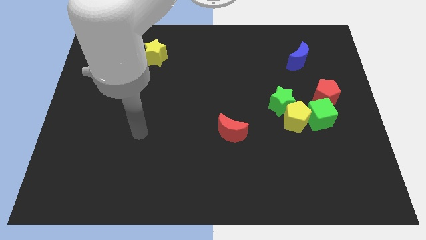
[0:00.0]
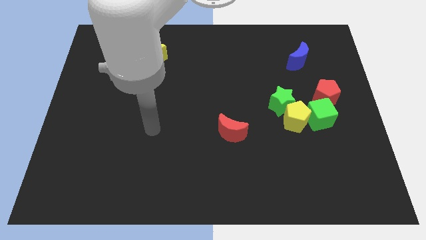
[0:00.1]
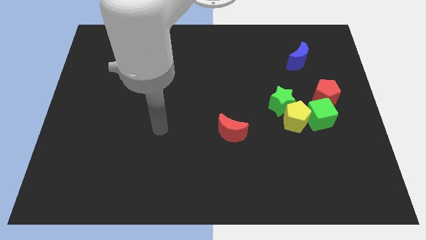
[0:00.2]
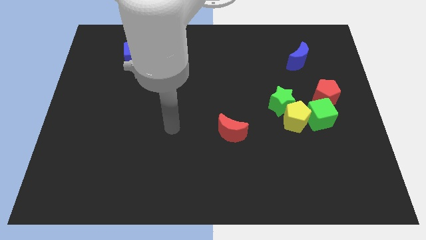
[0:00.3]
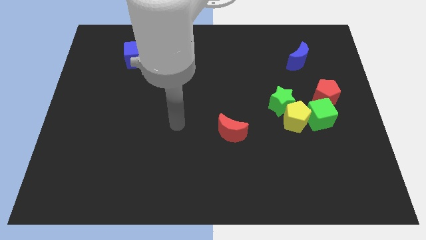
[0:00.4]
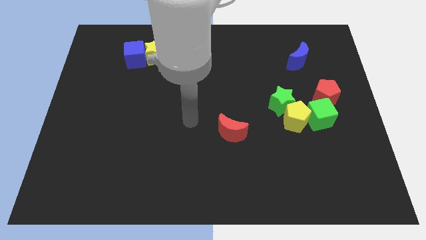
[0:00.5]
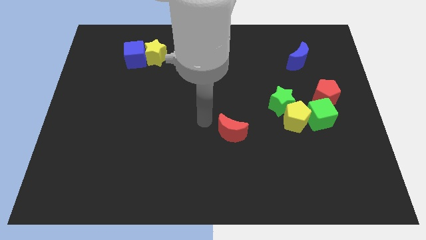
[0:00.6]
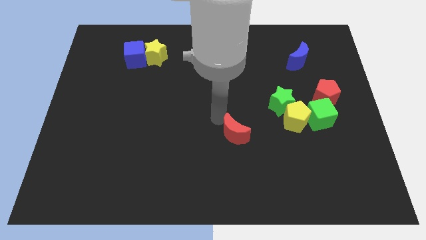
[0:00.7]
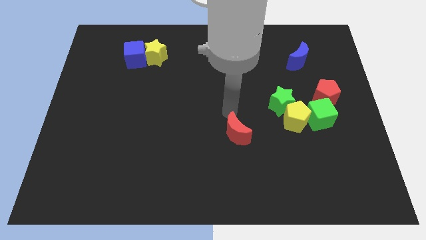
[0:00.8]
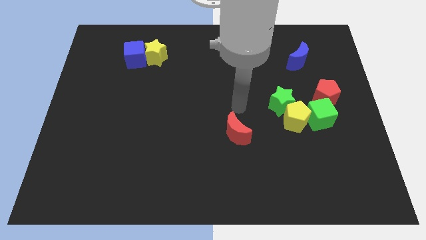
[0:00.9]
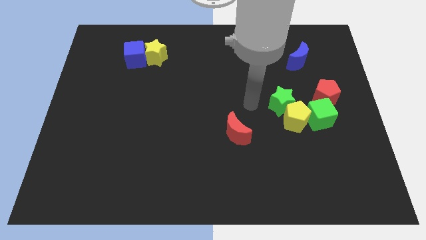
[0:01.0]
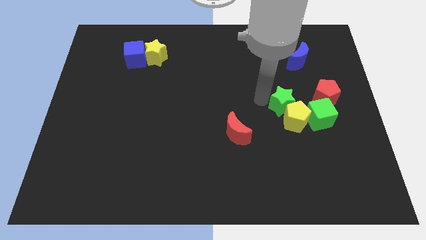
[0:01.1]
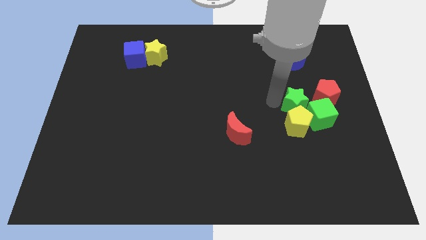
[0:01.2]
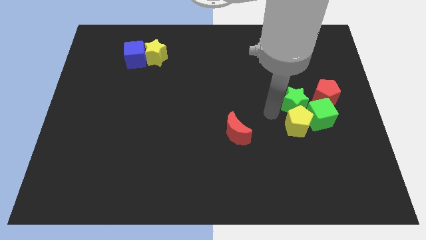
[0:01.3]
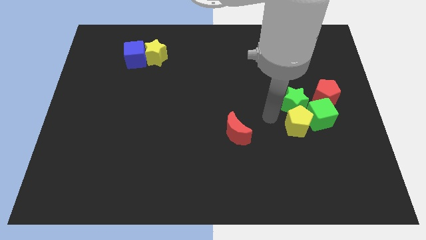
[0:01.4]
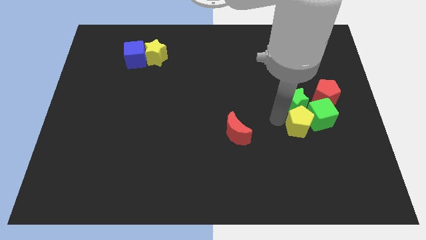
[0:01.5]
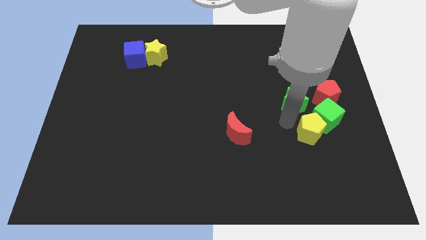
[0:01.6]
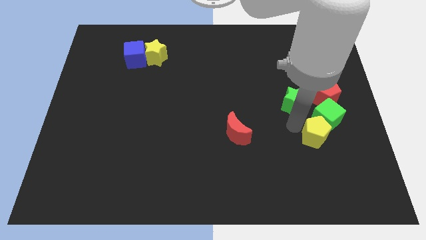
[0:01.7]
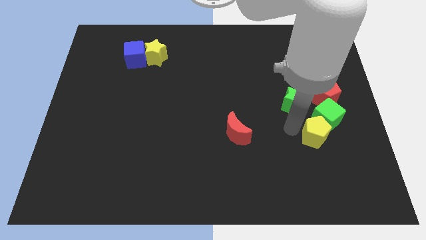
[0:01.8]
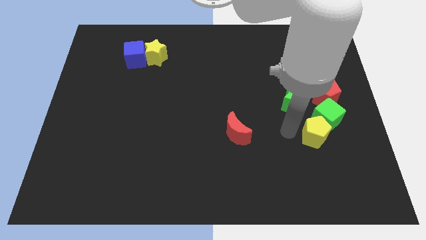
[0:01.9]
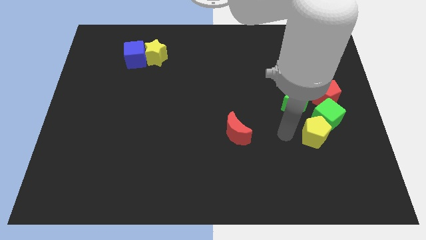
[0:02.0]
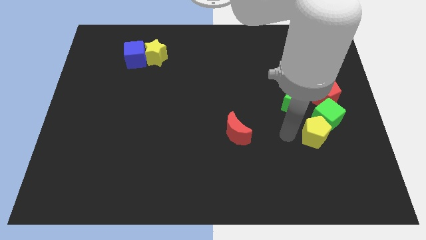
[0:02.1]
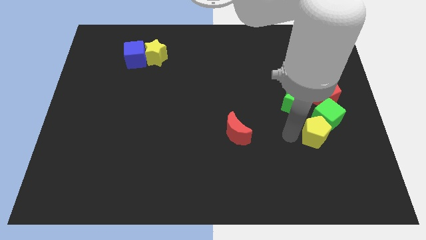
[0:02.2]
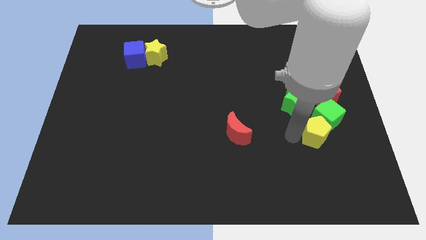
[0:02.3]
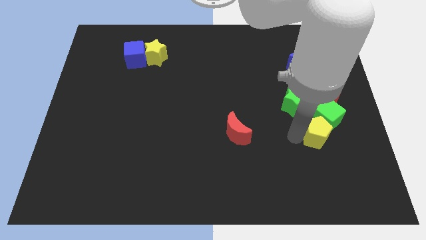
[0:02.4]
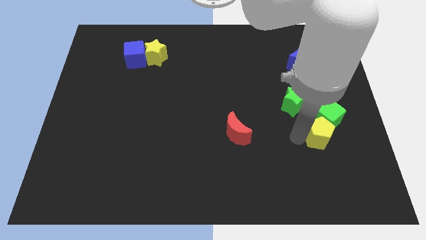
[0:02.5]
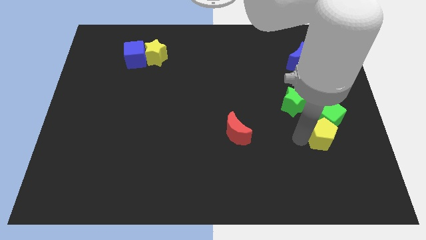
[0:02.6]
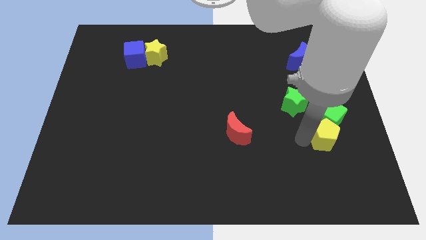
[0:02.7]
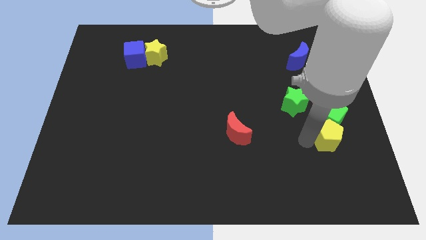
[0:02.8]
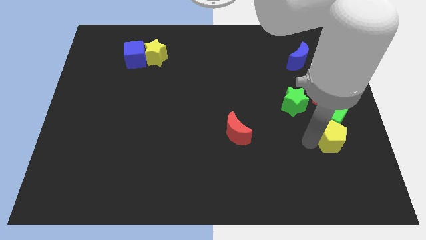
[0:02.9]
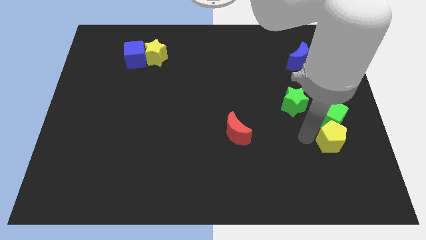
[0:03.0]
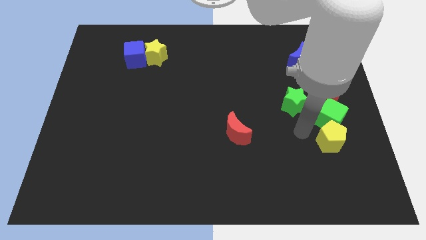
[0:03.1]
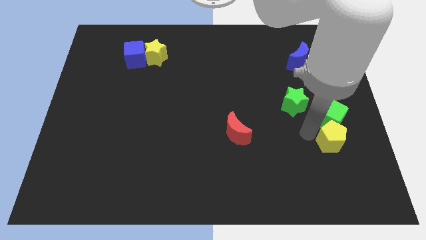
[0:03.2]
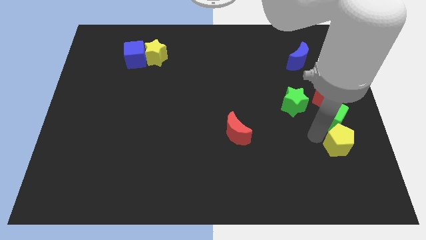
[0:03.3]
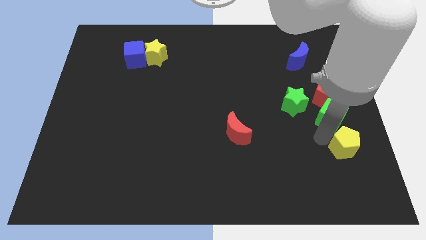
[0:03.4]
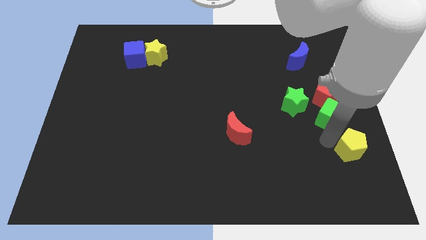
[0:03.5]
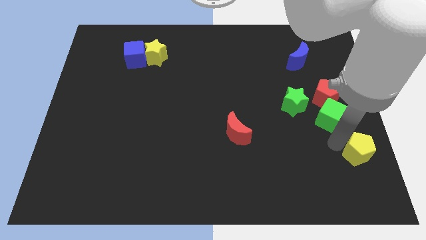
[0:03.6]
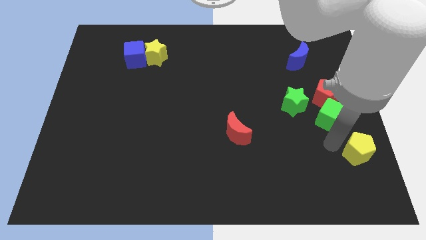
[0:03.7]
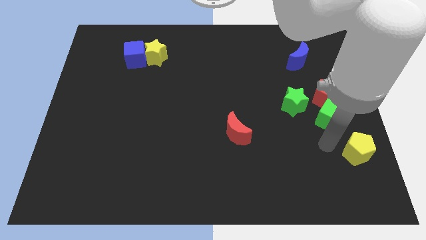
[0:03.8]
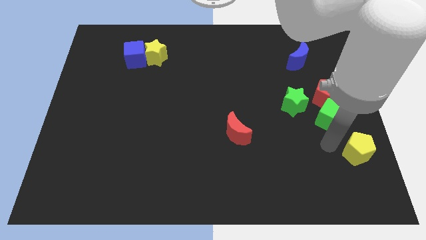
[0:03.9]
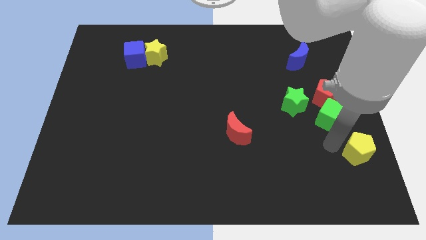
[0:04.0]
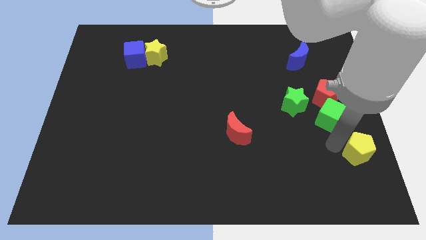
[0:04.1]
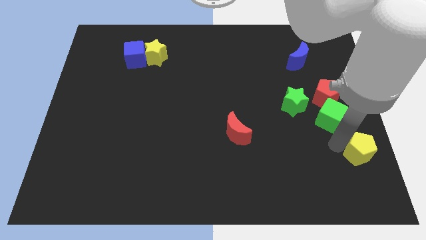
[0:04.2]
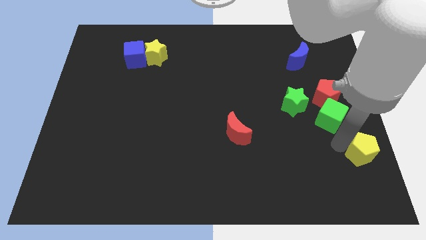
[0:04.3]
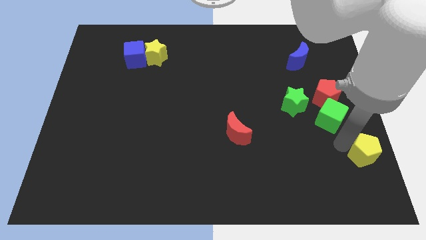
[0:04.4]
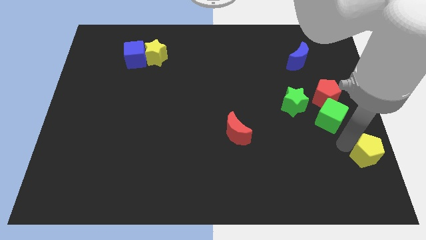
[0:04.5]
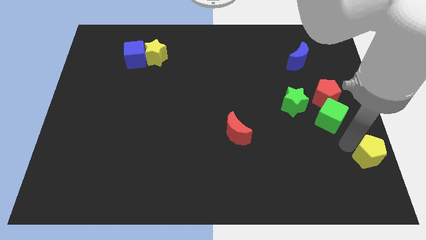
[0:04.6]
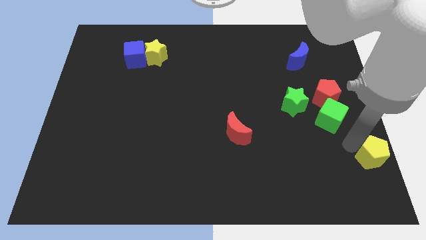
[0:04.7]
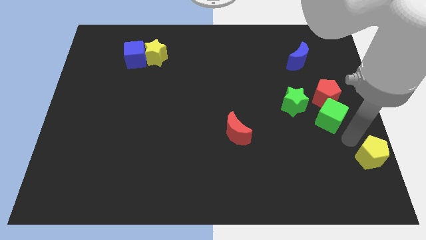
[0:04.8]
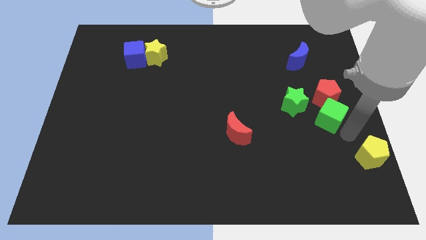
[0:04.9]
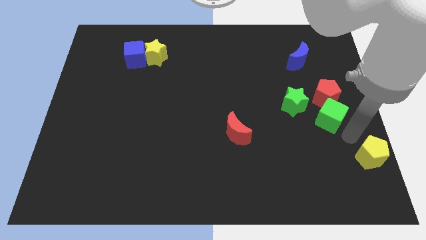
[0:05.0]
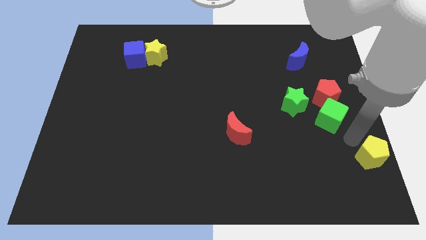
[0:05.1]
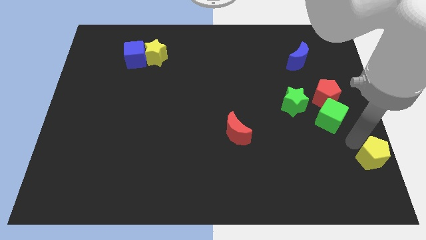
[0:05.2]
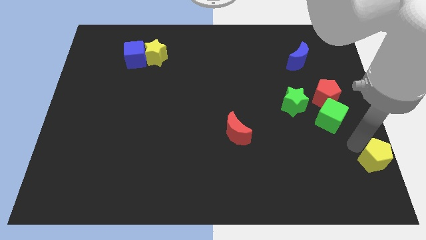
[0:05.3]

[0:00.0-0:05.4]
move the yellow pentagon to the bottom right
